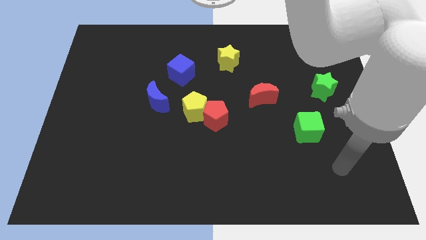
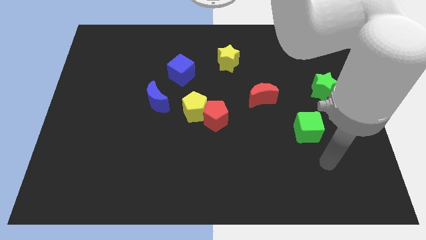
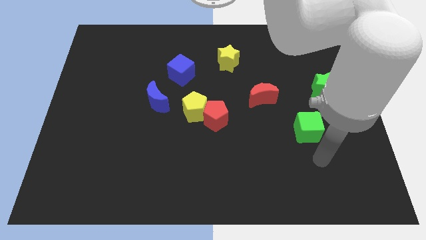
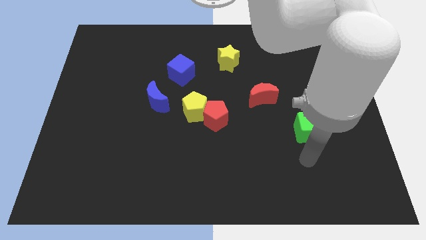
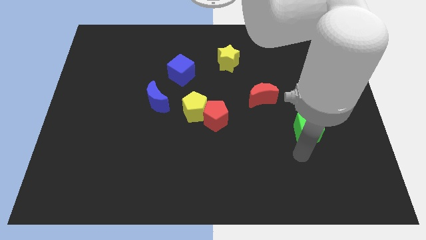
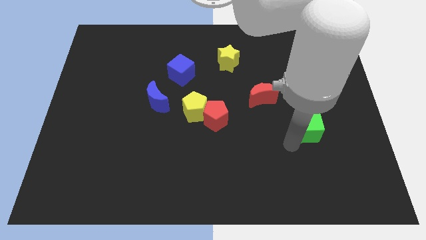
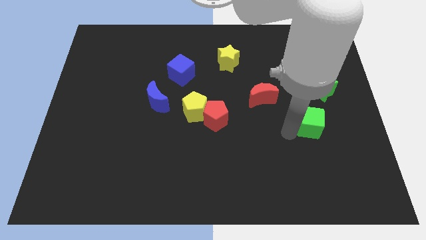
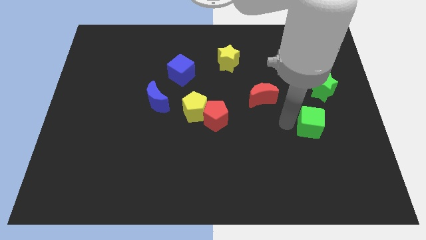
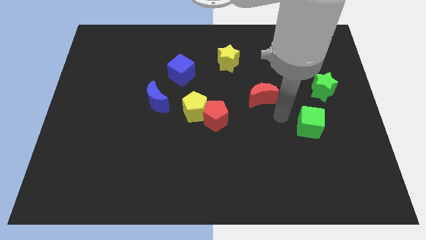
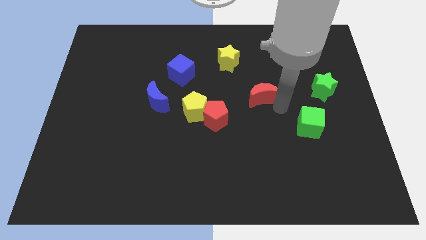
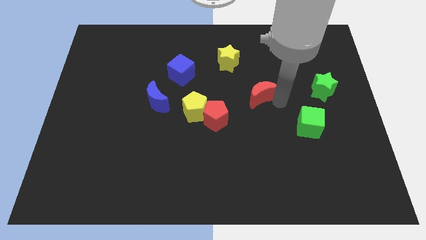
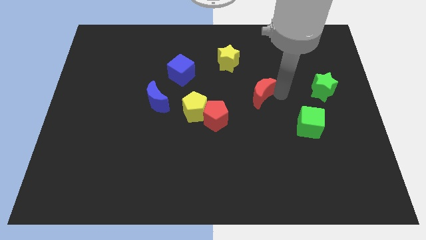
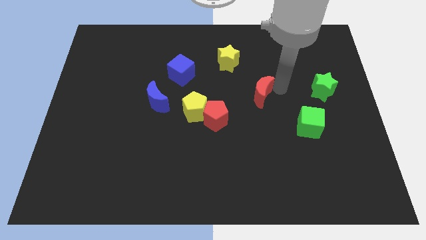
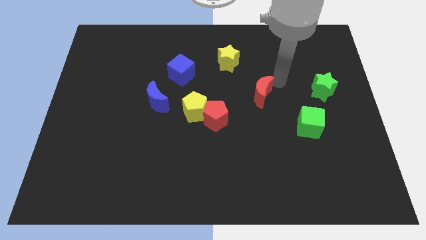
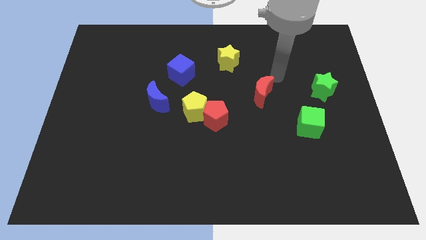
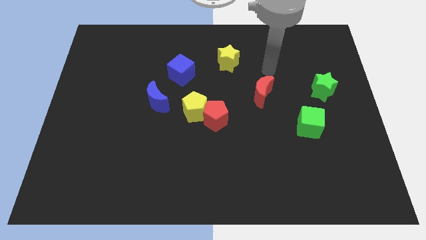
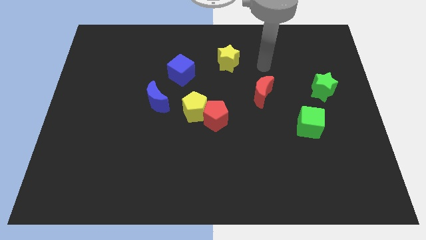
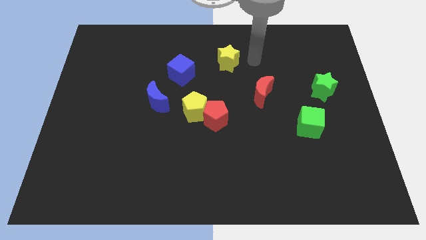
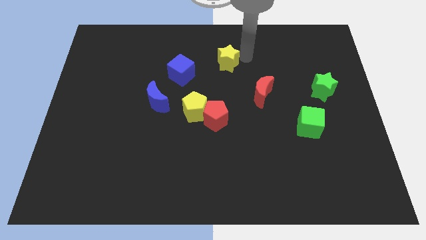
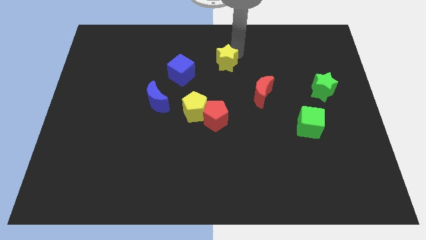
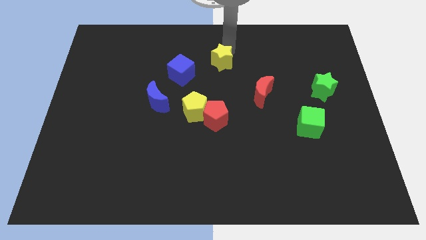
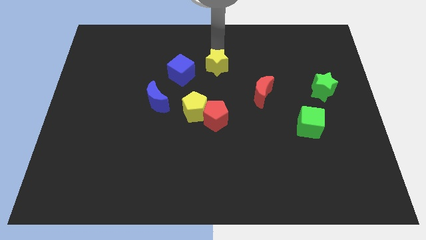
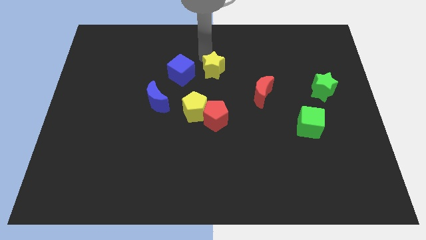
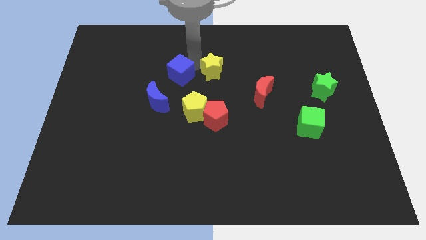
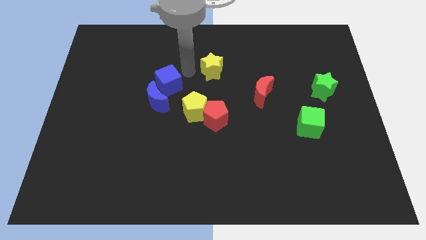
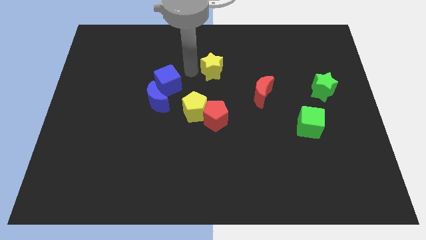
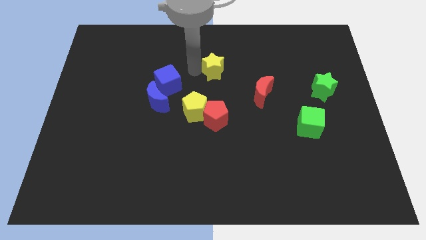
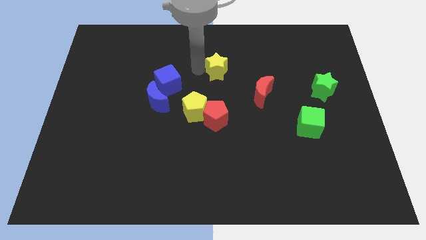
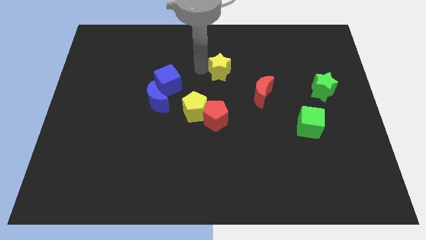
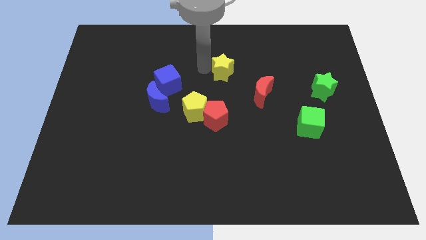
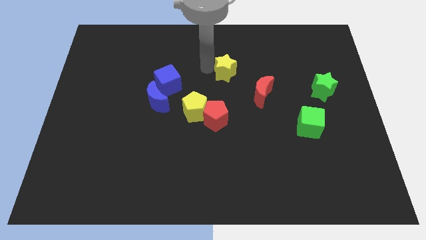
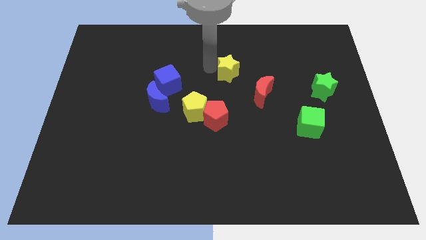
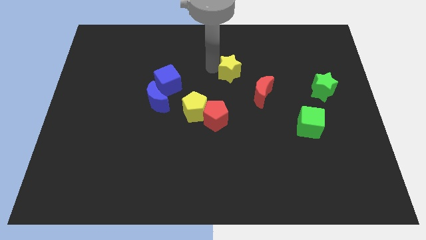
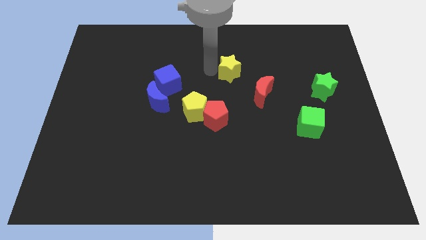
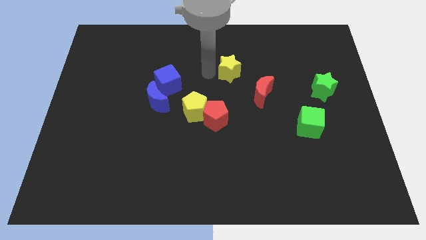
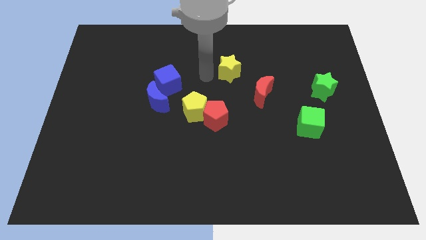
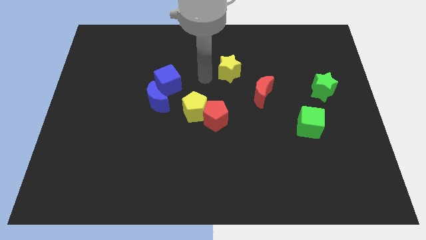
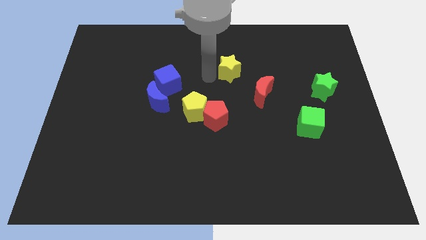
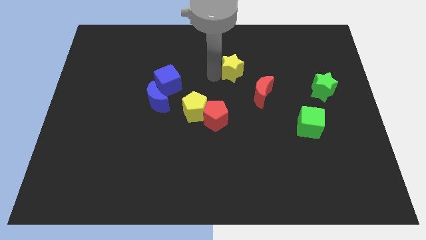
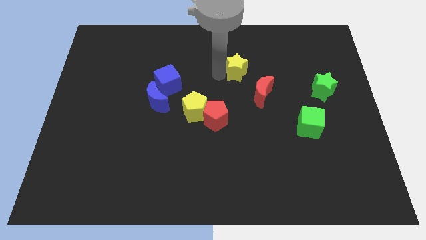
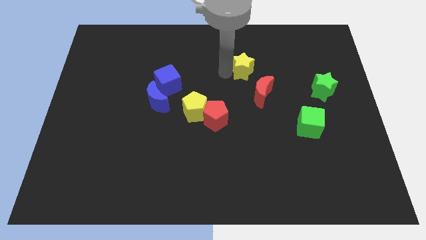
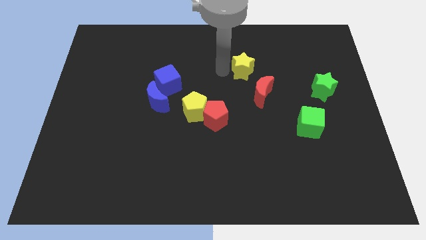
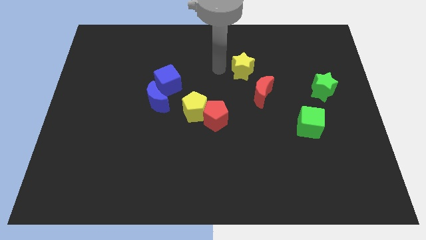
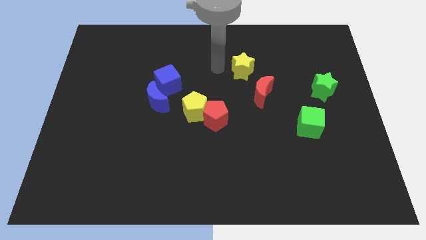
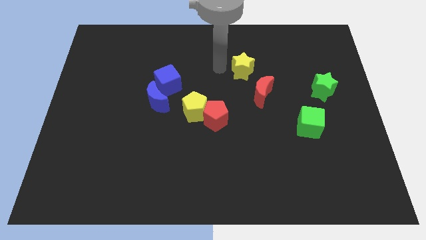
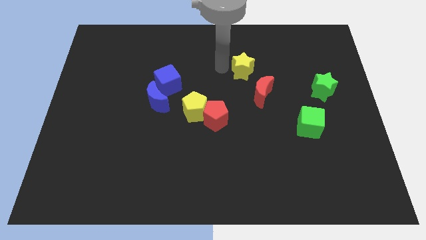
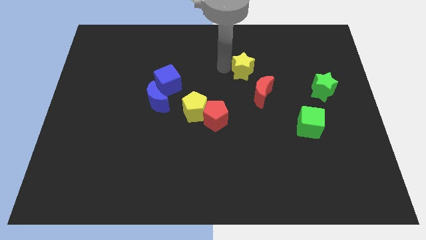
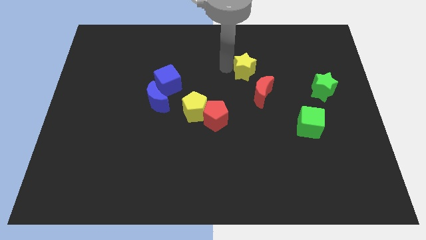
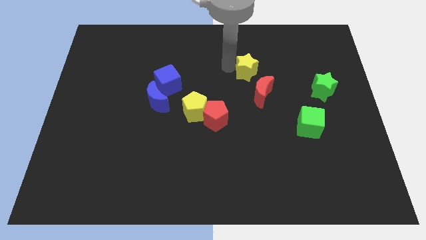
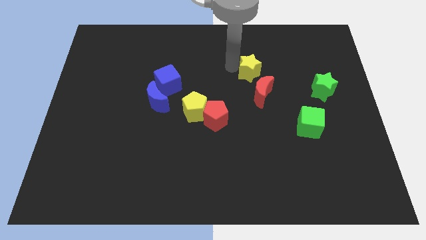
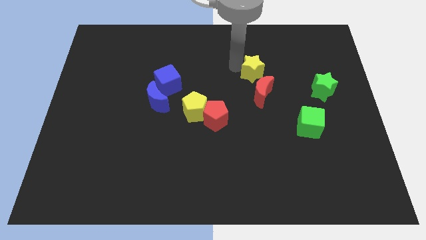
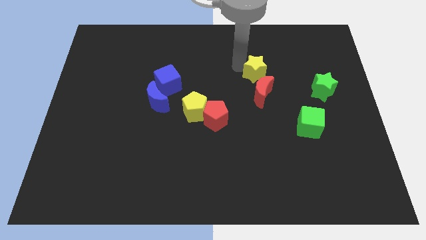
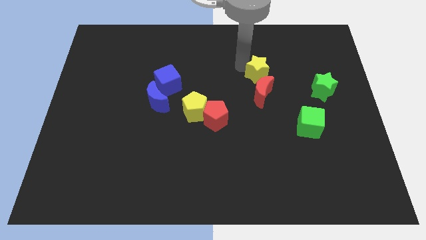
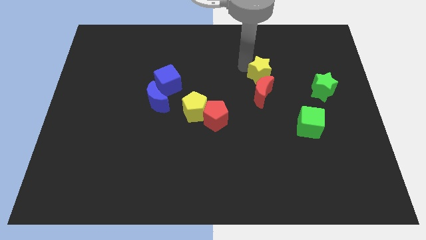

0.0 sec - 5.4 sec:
slide the yellow star to the top right of the red moon

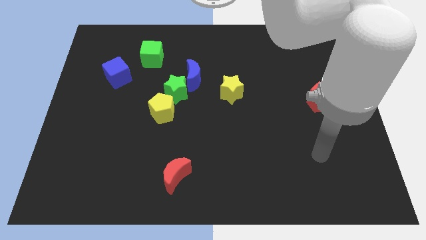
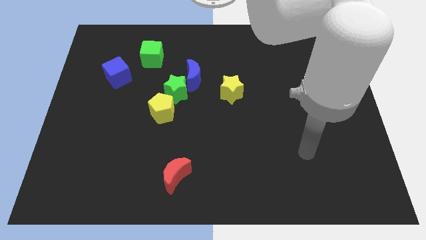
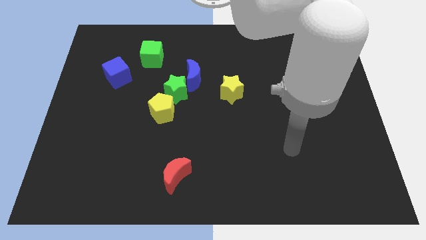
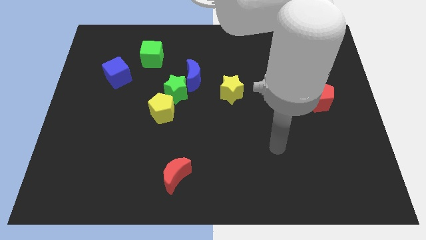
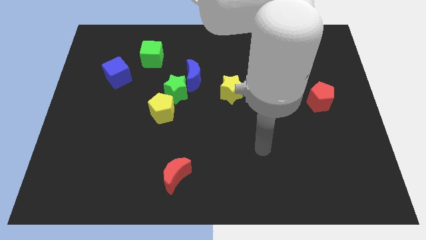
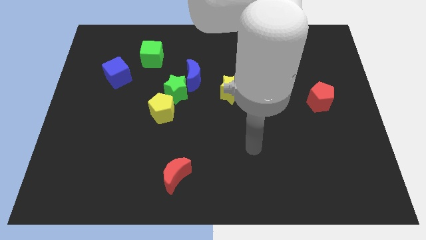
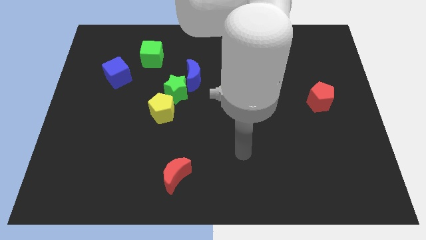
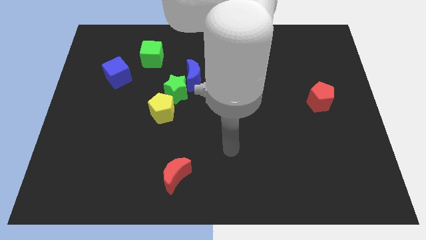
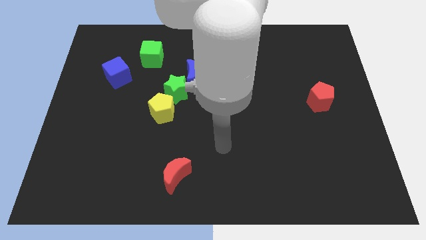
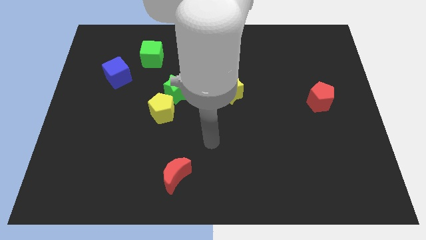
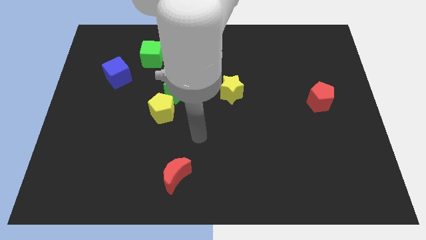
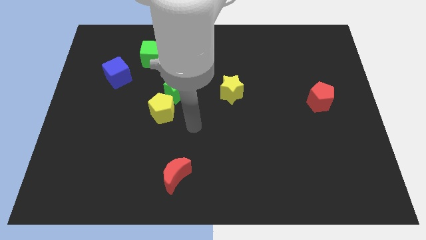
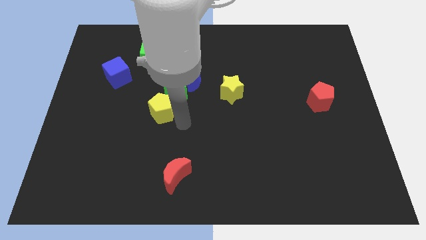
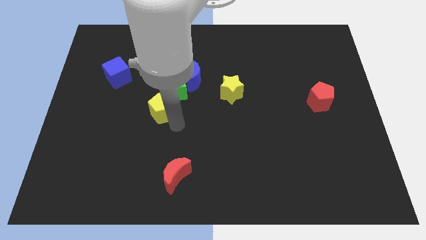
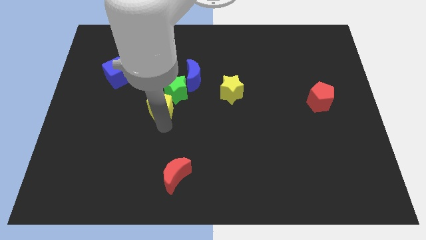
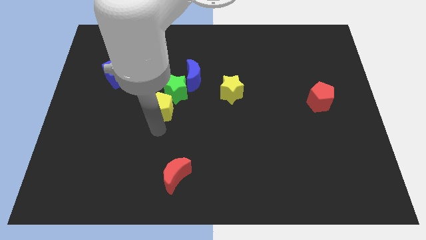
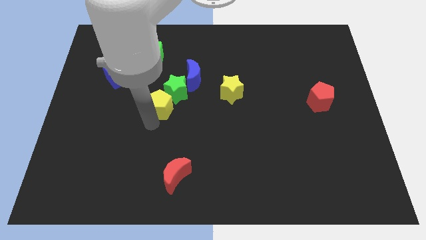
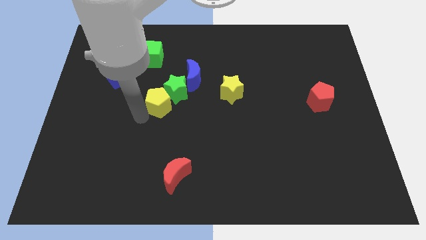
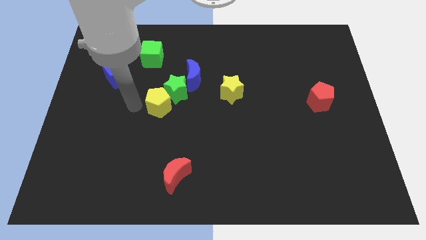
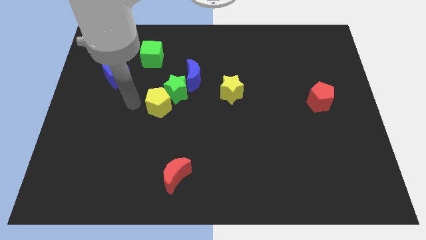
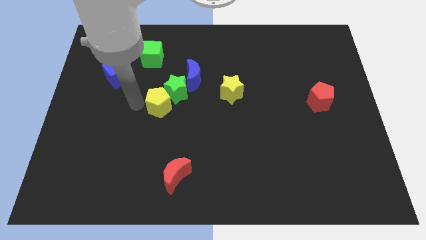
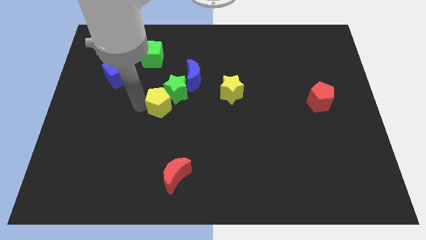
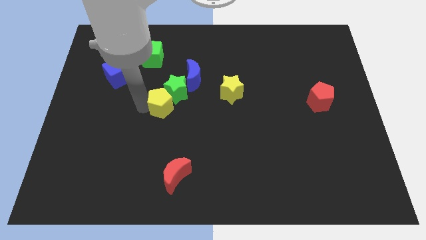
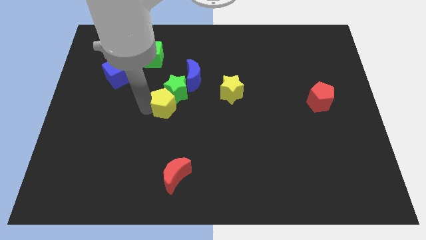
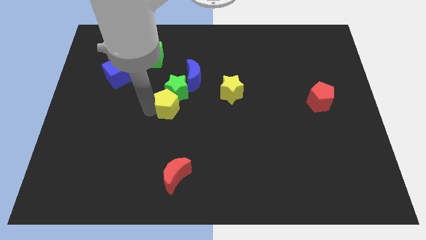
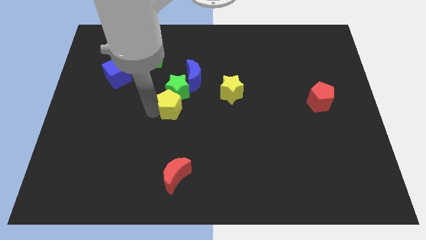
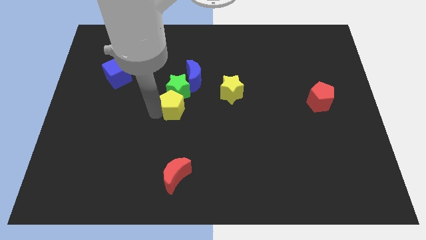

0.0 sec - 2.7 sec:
put the yellow pentagon diagonally down and to the right of the green star
